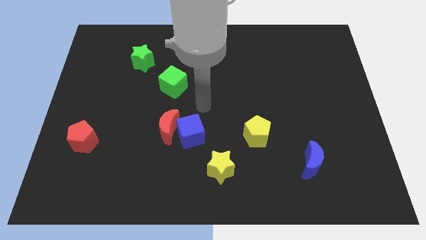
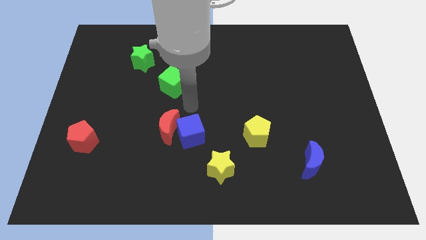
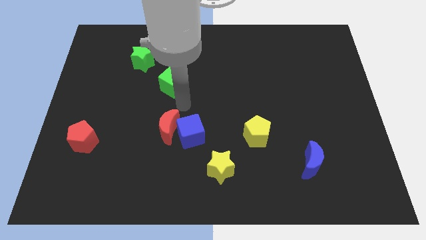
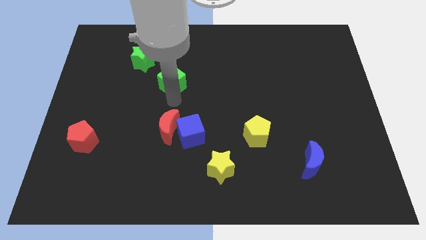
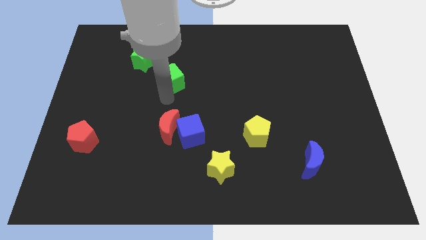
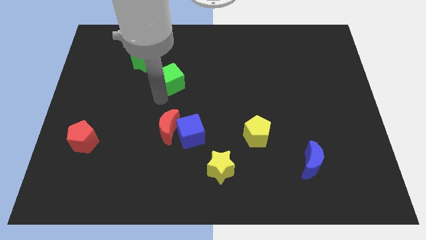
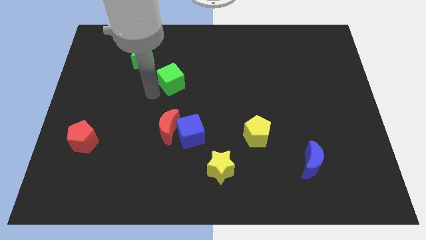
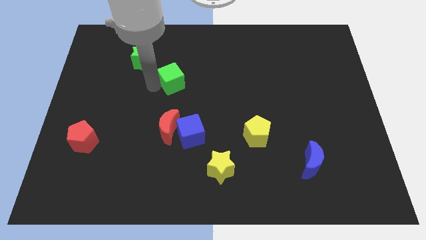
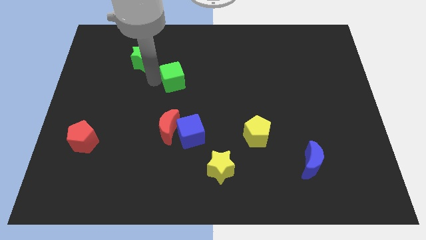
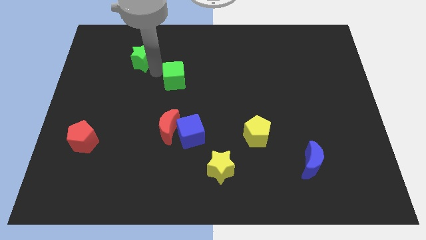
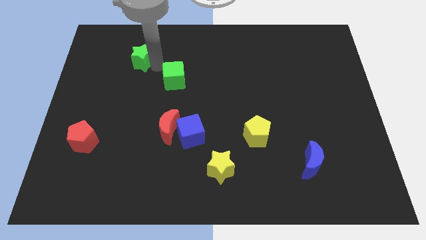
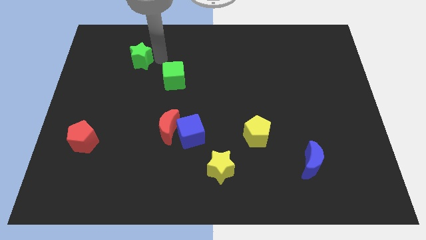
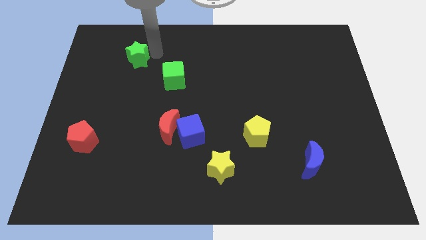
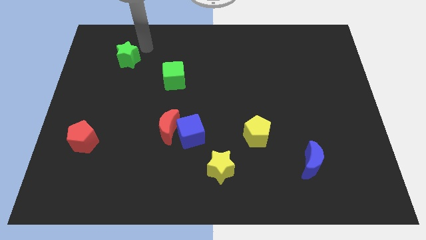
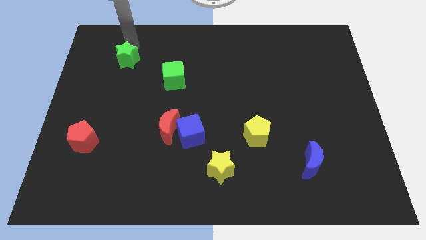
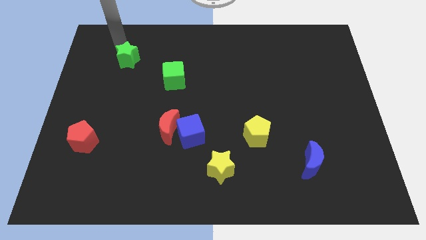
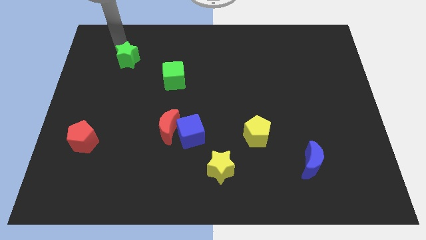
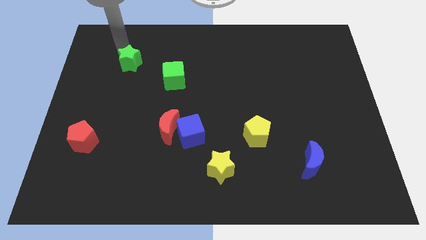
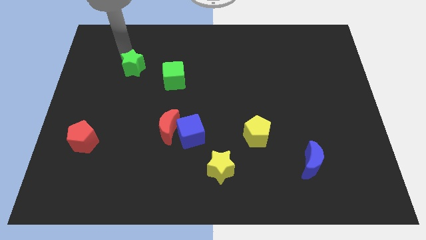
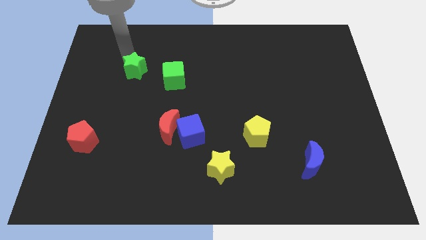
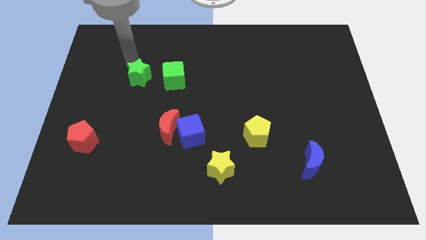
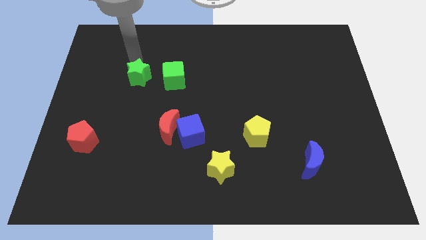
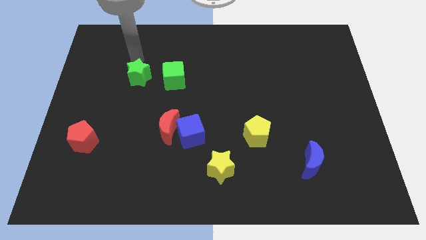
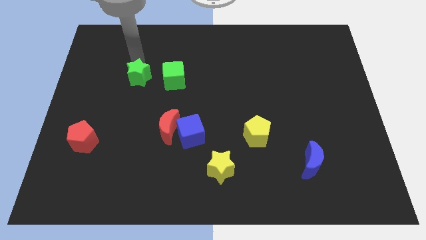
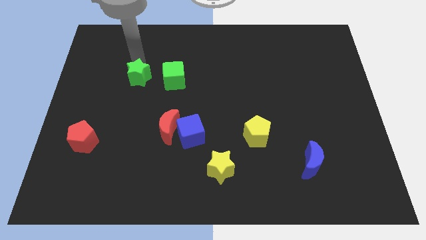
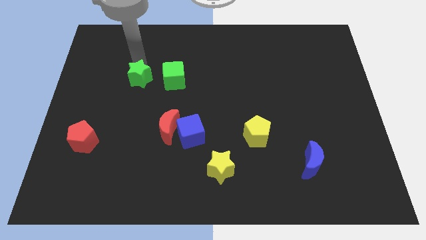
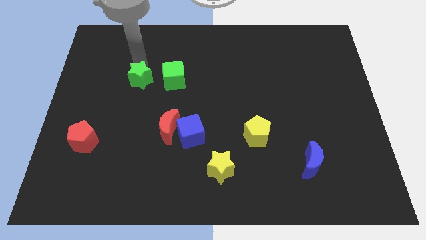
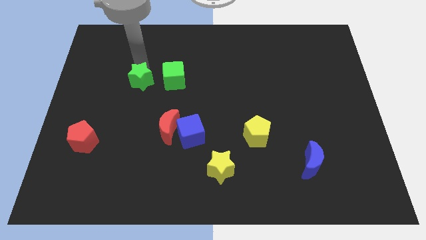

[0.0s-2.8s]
slightly move the green star down

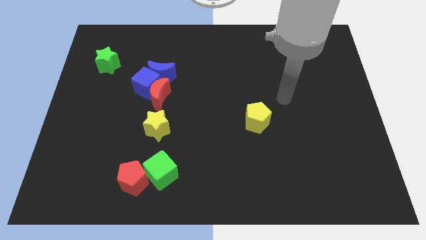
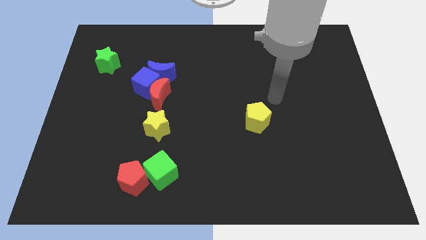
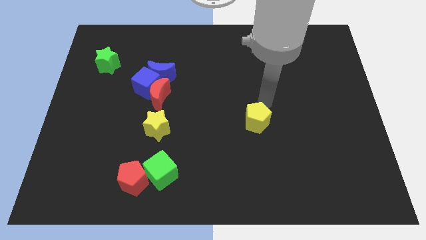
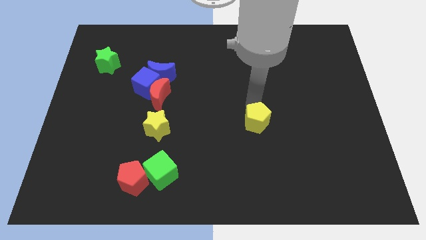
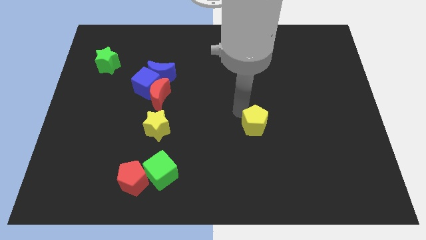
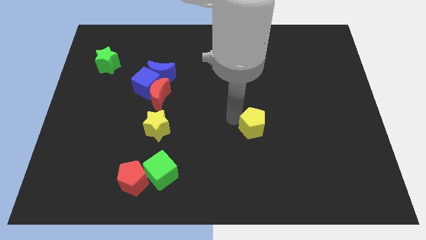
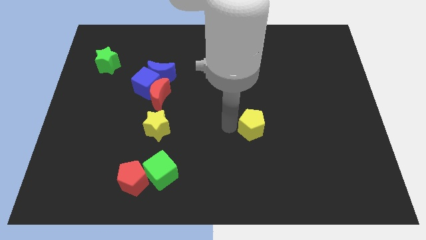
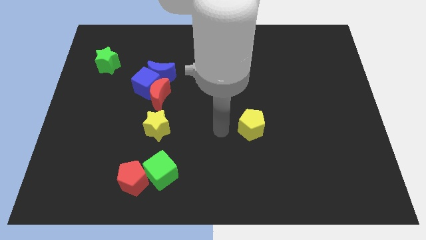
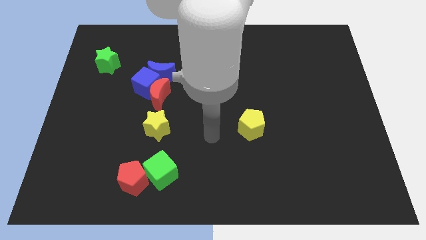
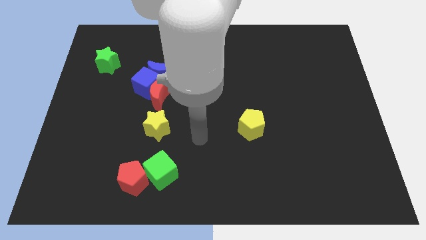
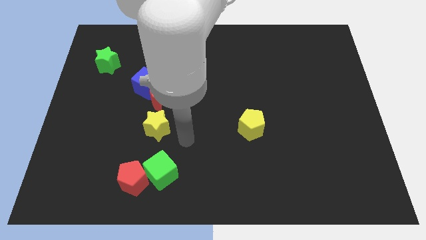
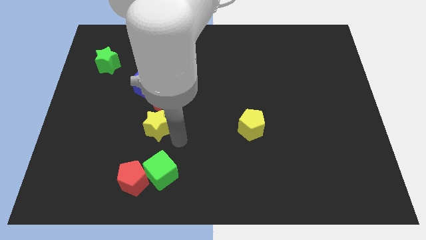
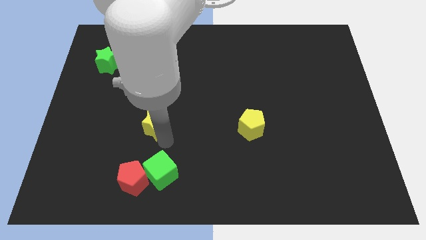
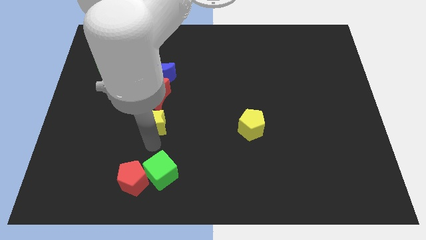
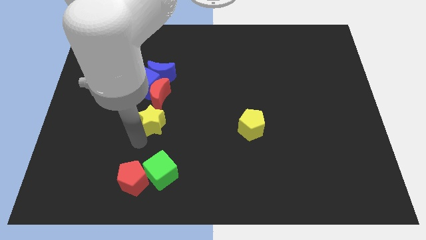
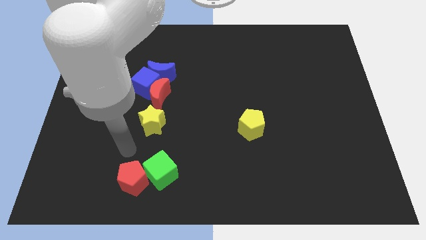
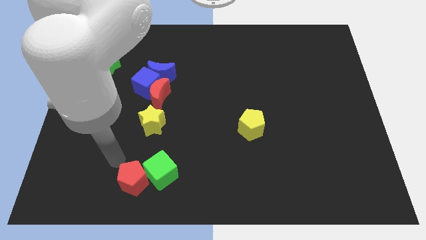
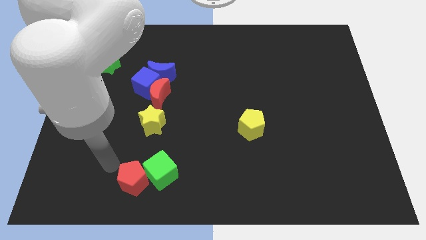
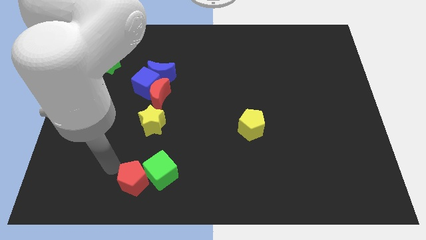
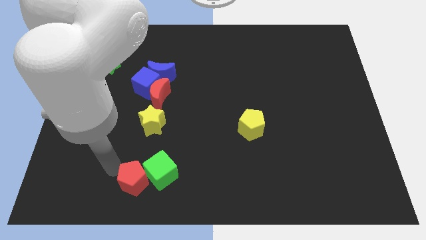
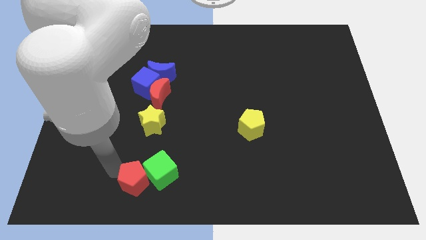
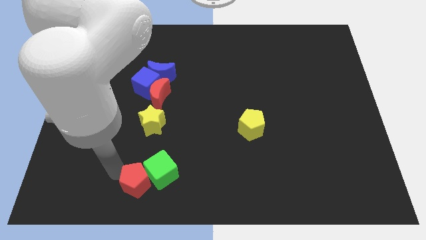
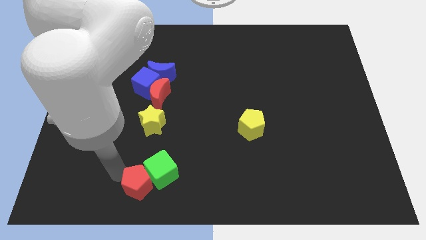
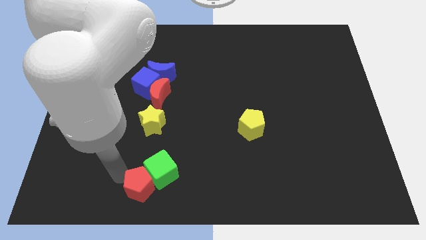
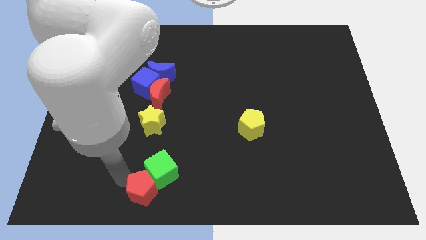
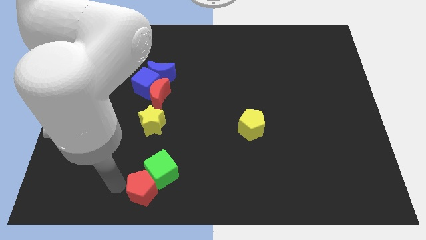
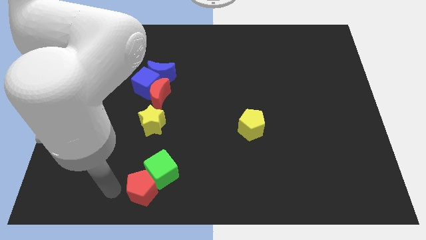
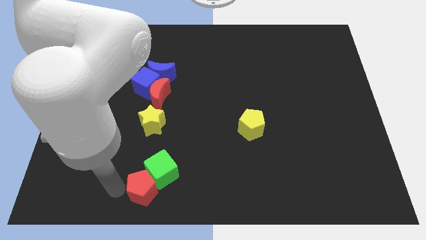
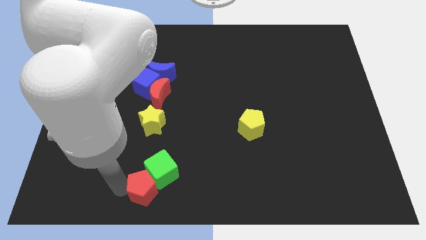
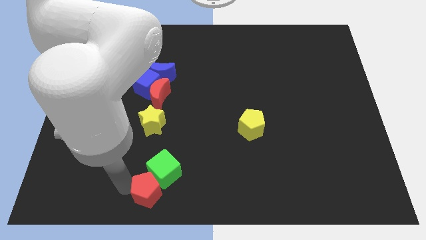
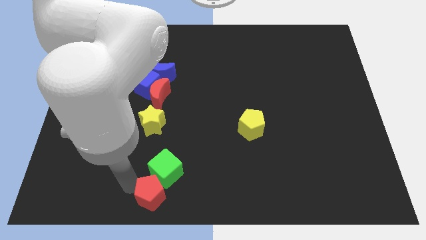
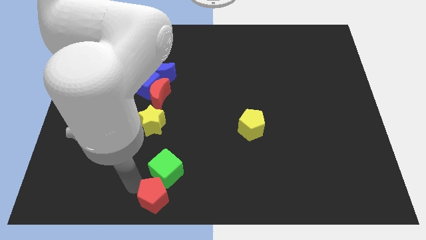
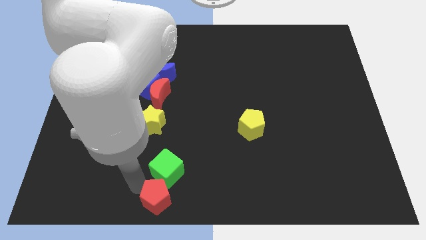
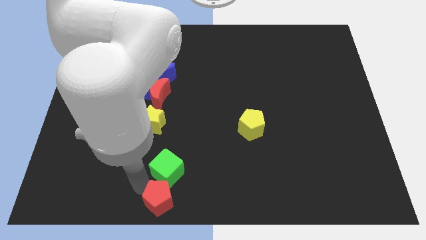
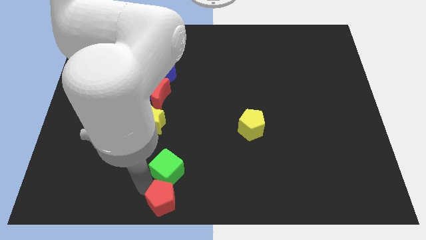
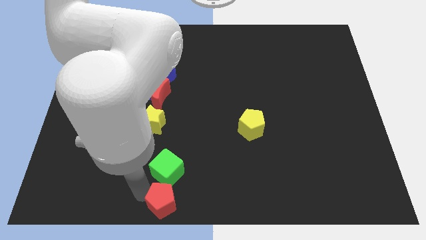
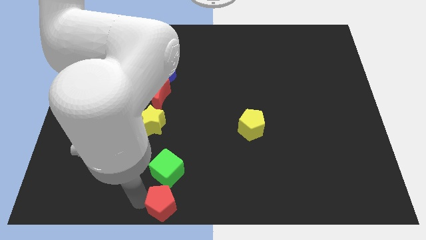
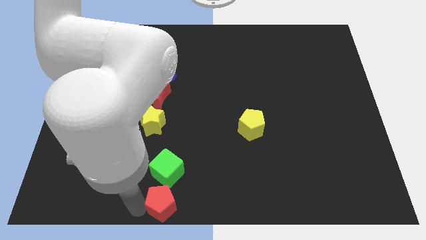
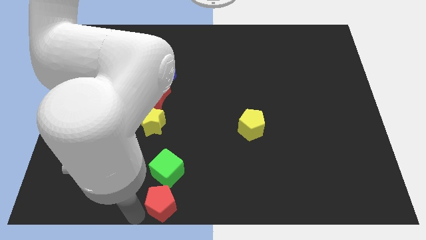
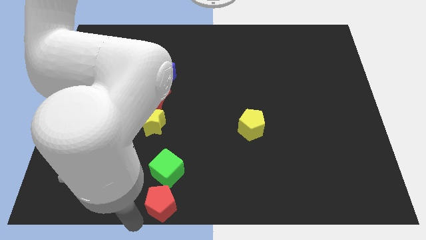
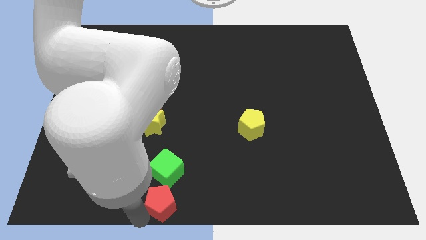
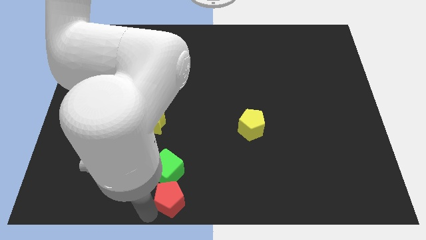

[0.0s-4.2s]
push the red pentagon to the right a little bit

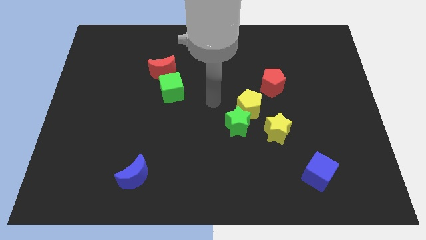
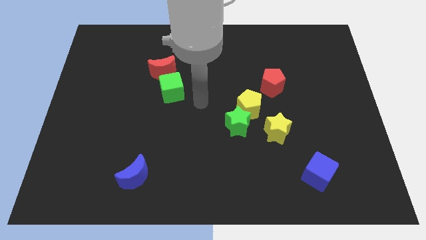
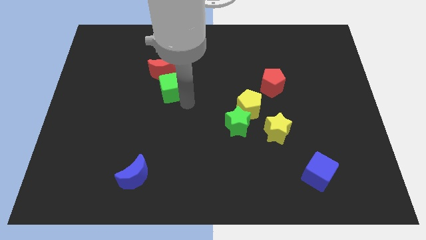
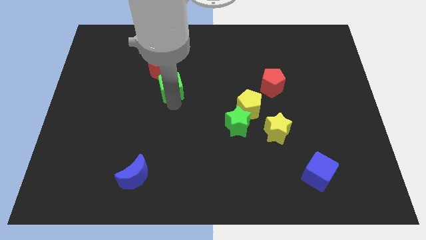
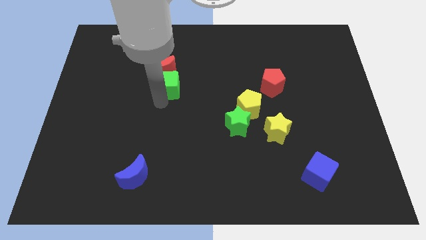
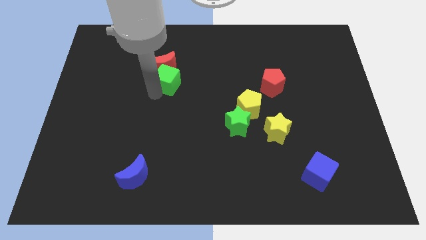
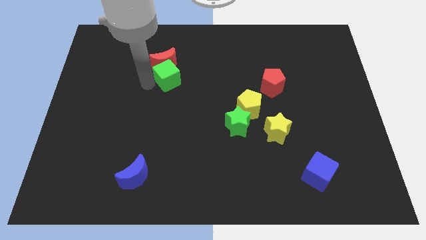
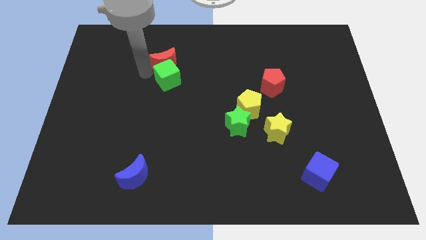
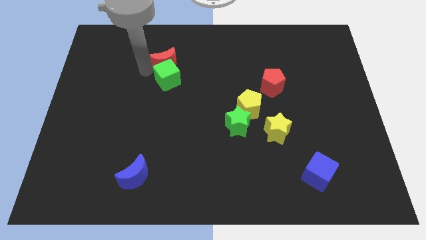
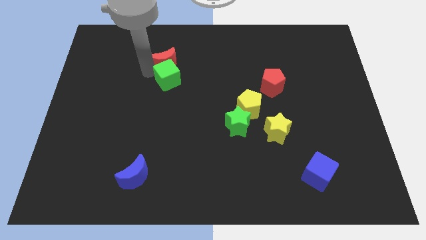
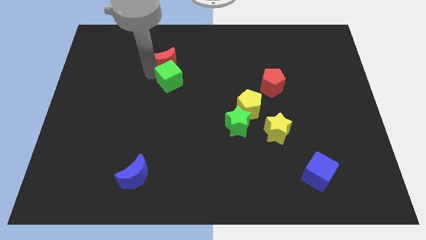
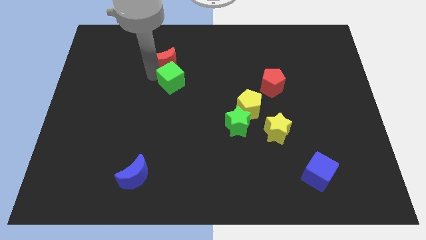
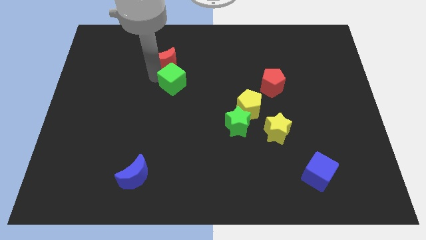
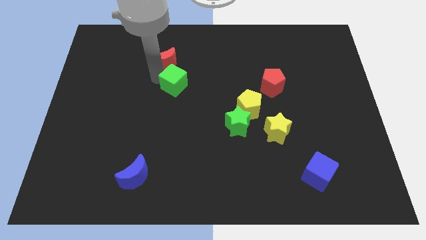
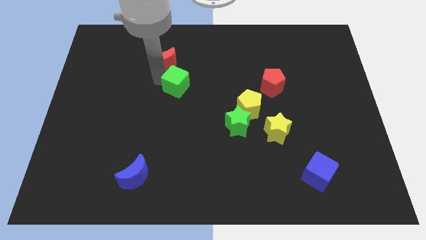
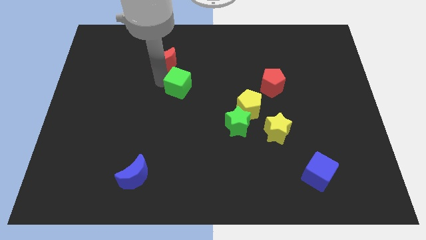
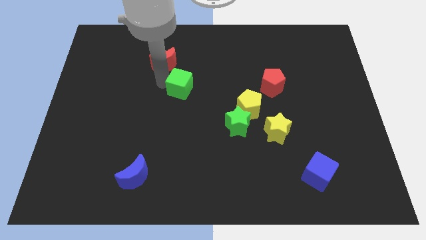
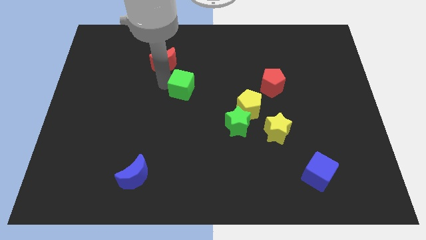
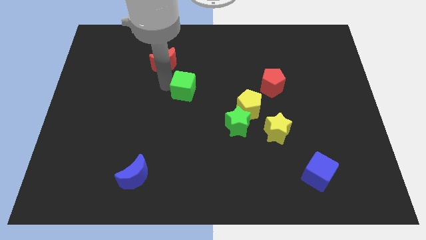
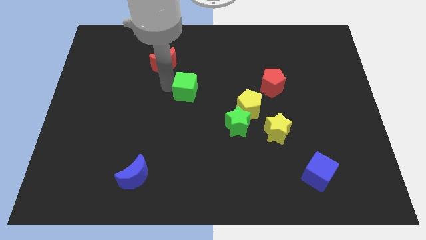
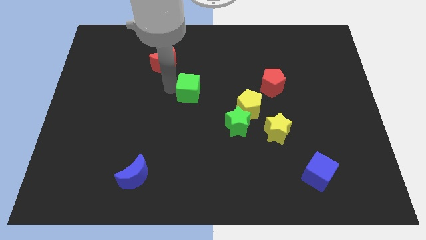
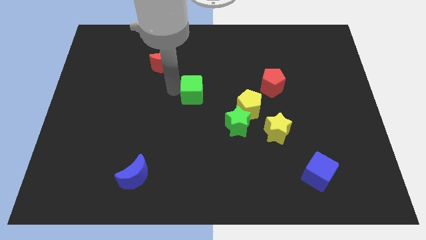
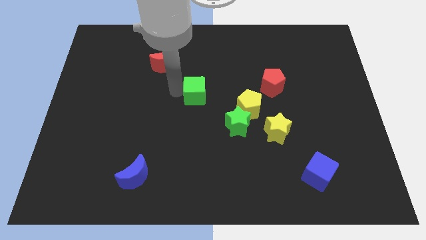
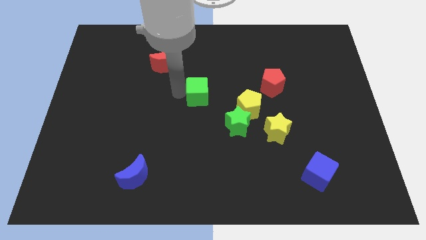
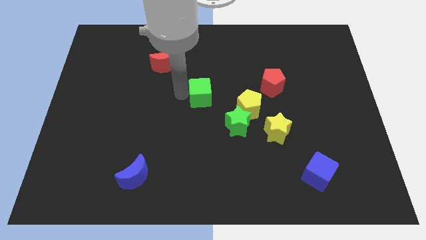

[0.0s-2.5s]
slightly slide the green cube to the right
